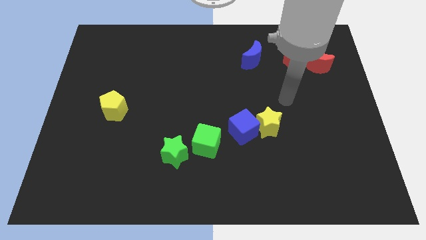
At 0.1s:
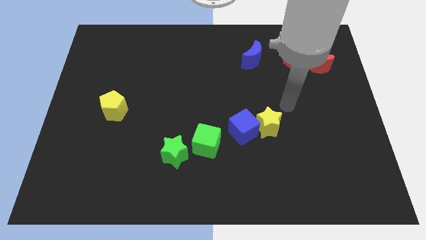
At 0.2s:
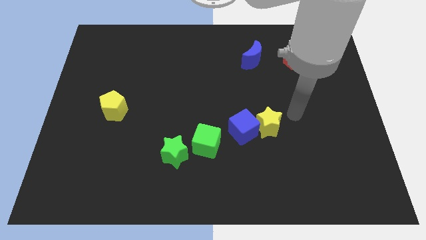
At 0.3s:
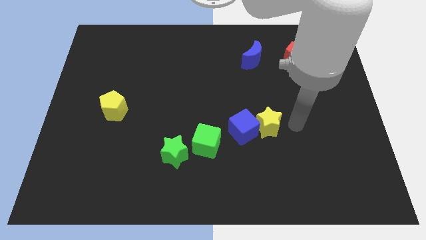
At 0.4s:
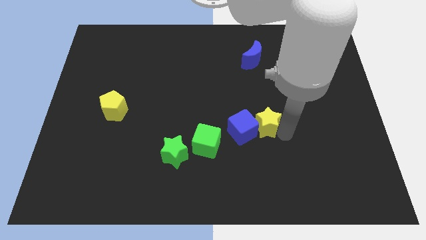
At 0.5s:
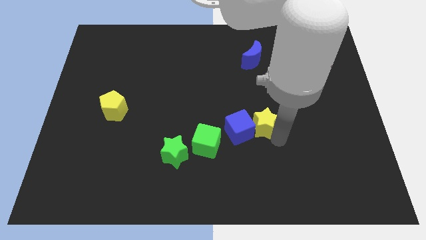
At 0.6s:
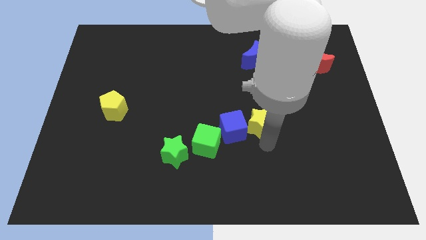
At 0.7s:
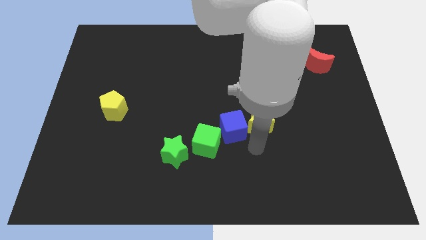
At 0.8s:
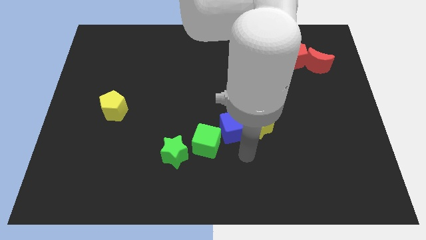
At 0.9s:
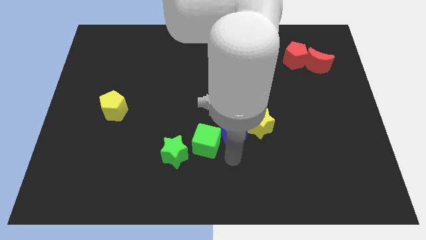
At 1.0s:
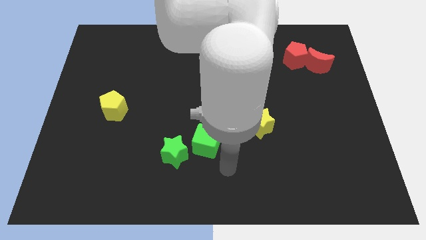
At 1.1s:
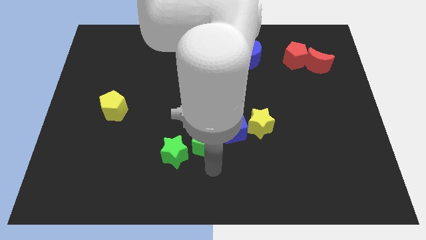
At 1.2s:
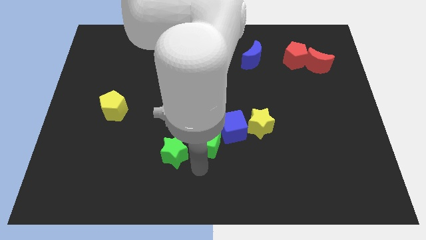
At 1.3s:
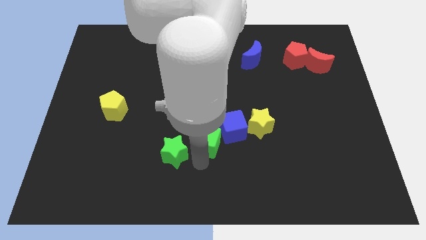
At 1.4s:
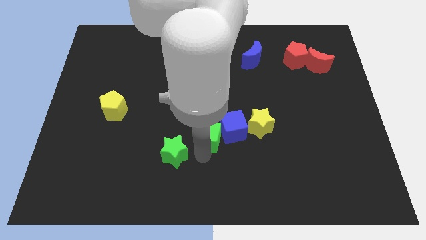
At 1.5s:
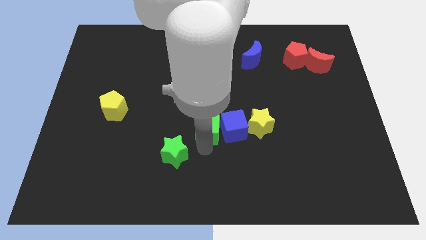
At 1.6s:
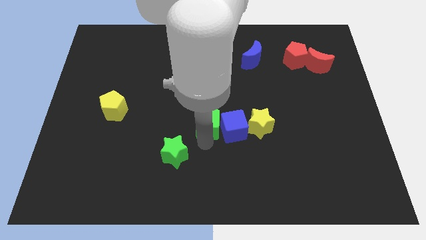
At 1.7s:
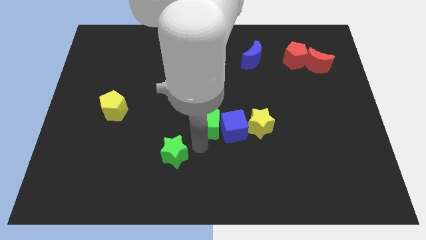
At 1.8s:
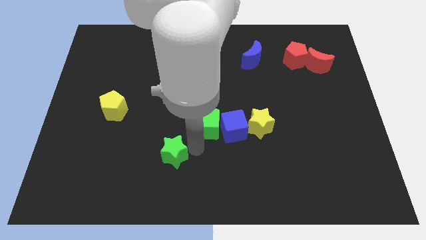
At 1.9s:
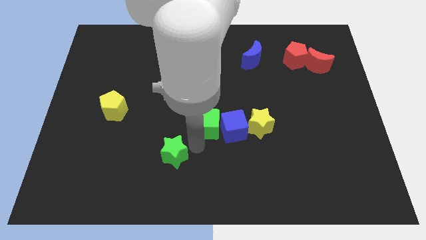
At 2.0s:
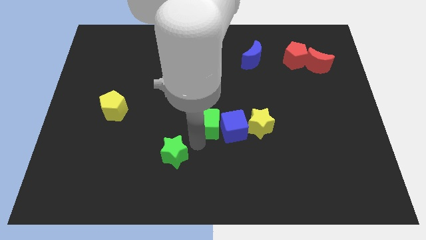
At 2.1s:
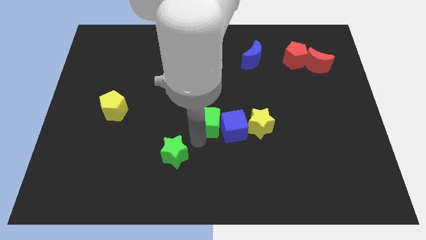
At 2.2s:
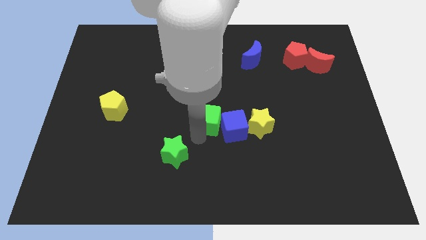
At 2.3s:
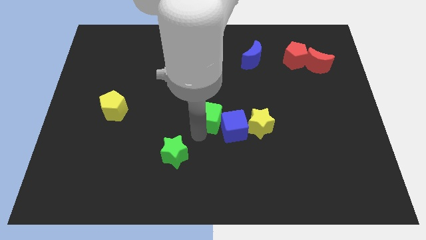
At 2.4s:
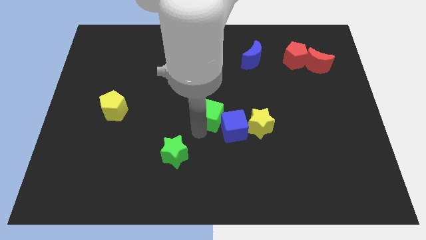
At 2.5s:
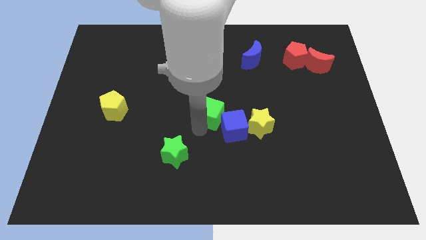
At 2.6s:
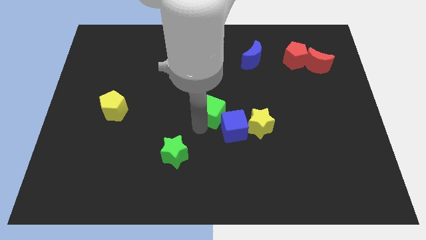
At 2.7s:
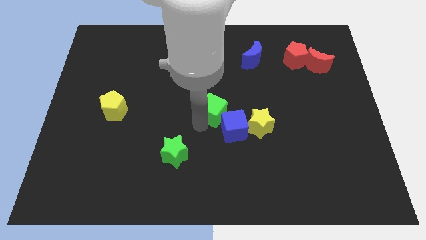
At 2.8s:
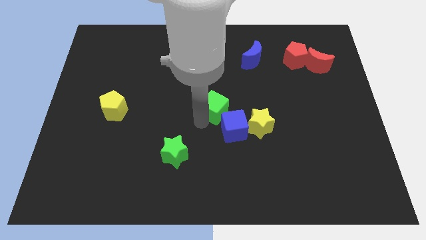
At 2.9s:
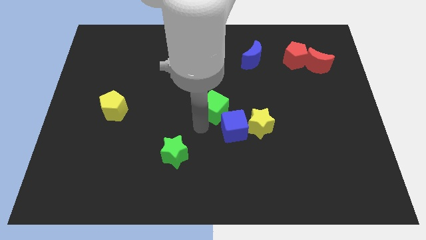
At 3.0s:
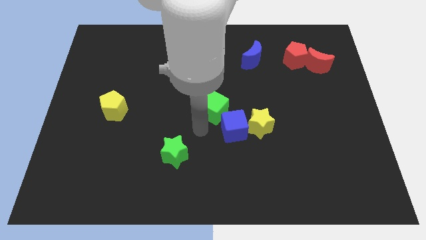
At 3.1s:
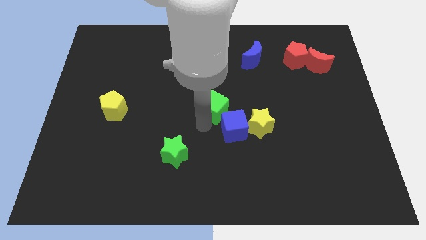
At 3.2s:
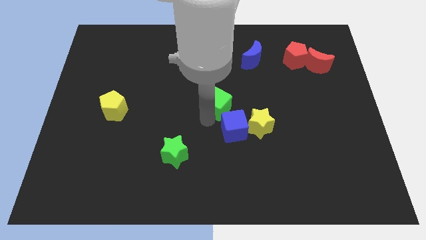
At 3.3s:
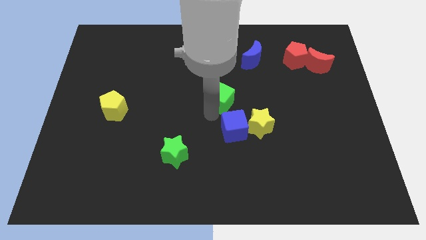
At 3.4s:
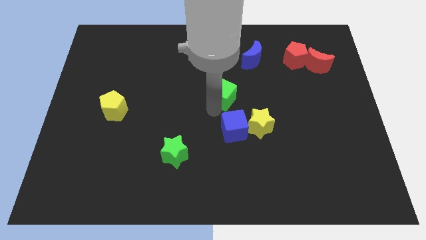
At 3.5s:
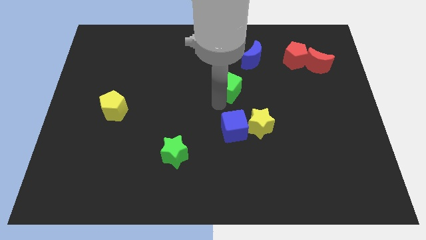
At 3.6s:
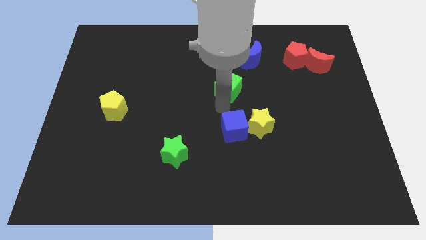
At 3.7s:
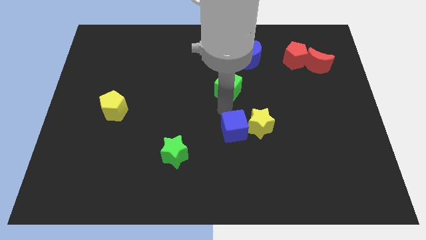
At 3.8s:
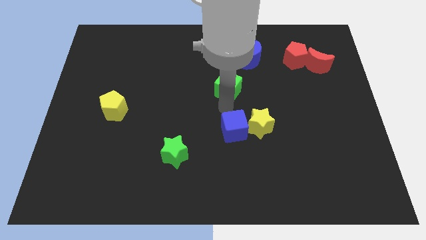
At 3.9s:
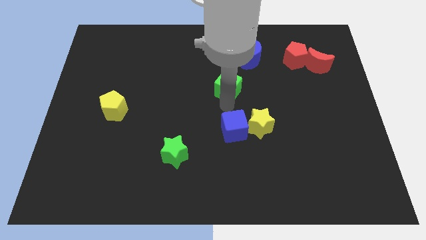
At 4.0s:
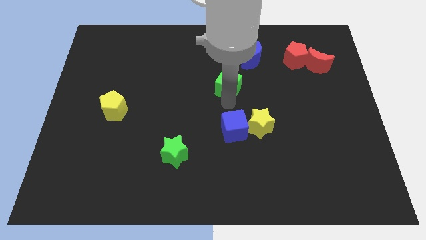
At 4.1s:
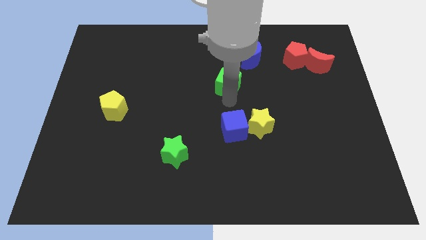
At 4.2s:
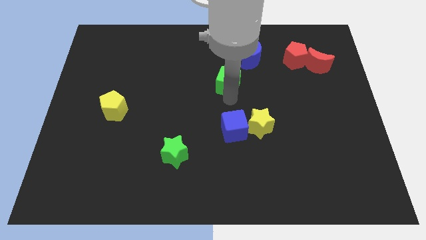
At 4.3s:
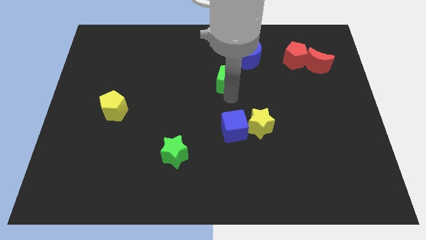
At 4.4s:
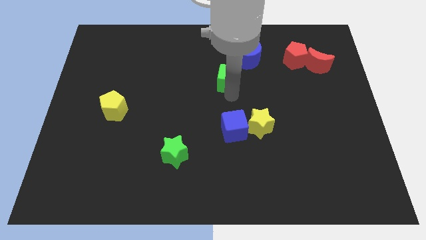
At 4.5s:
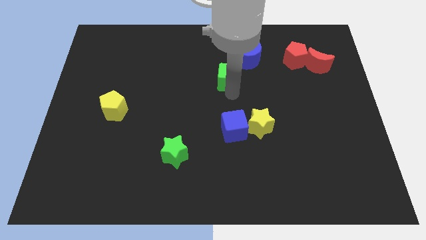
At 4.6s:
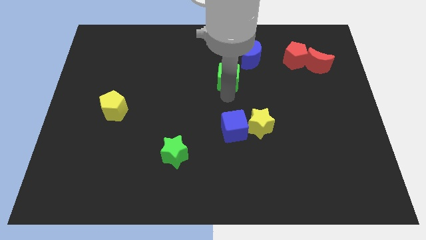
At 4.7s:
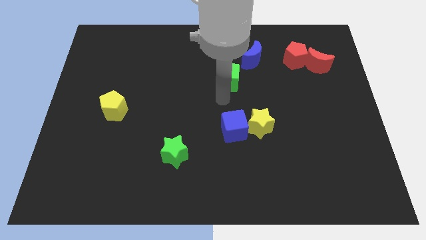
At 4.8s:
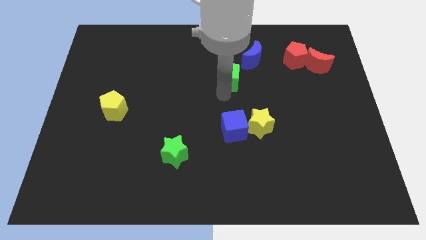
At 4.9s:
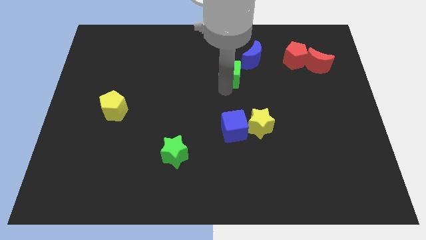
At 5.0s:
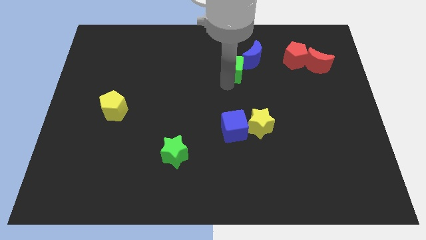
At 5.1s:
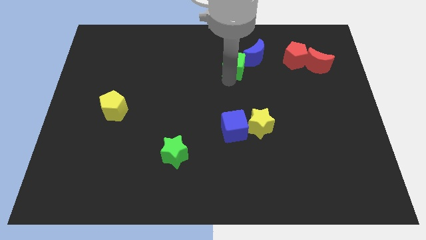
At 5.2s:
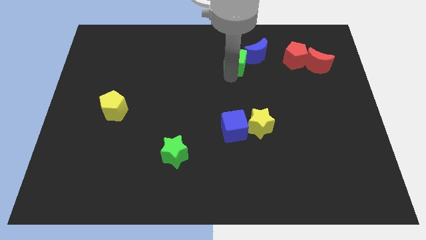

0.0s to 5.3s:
move the green cube to the left of the red pentagon

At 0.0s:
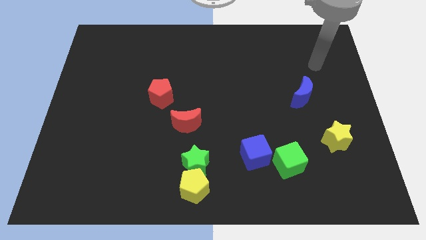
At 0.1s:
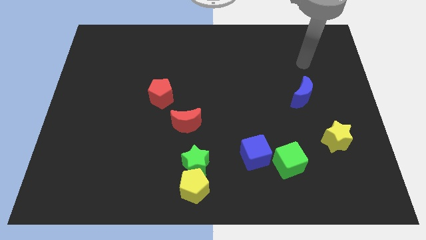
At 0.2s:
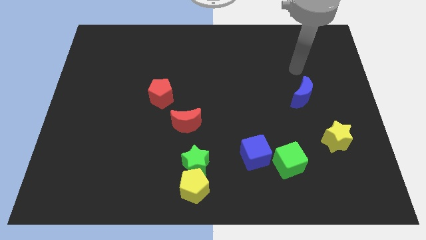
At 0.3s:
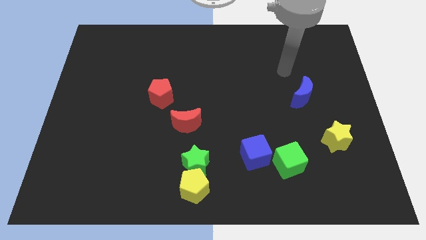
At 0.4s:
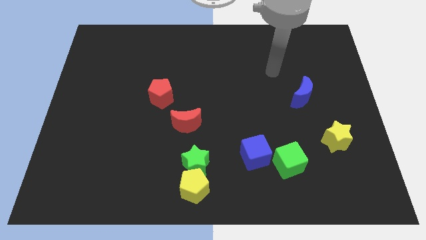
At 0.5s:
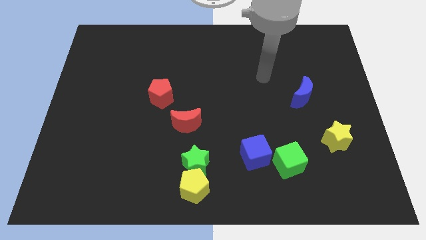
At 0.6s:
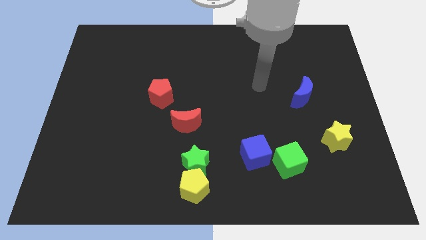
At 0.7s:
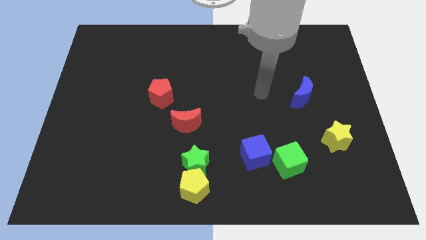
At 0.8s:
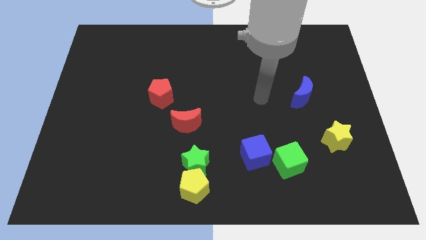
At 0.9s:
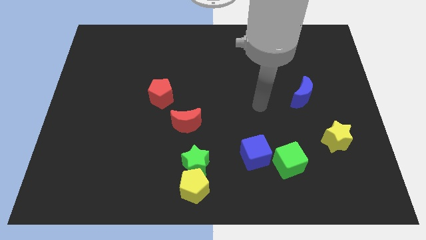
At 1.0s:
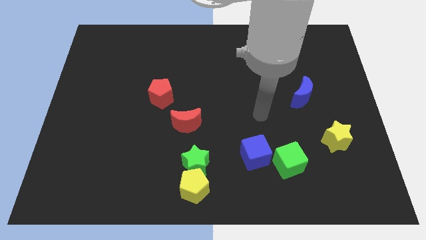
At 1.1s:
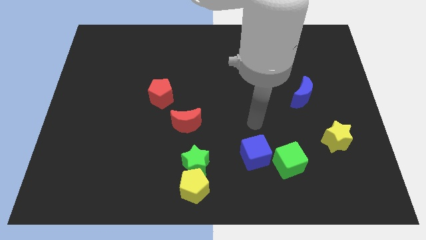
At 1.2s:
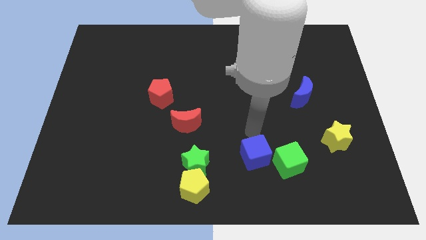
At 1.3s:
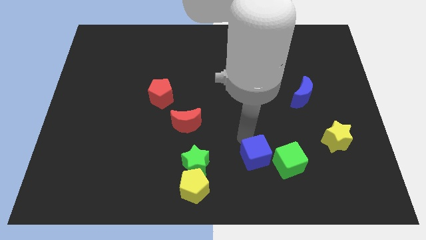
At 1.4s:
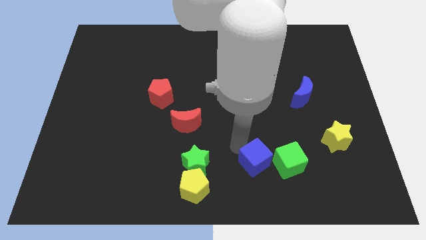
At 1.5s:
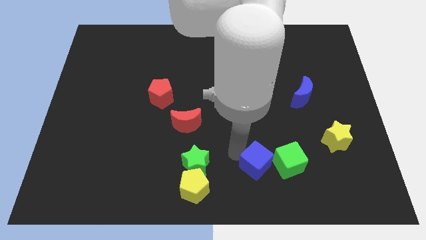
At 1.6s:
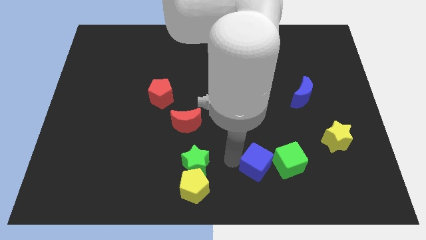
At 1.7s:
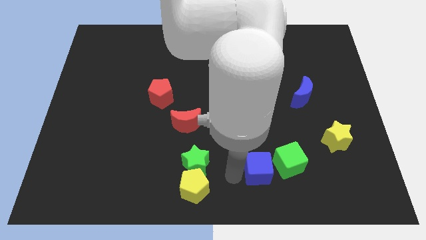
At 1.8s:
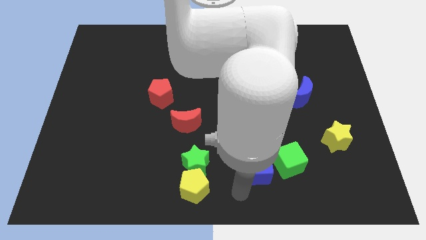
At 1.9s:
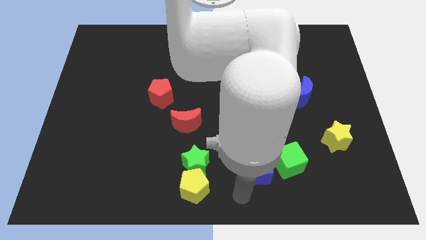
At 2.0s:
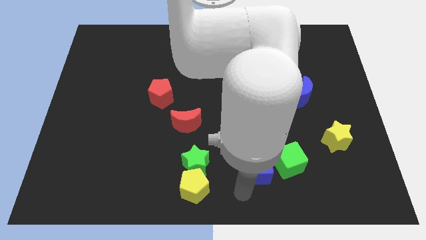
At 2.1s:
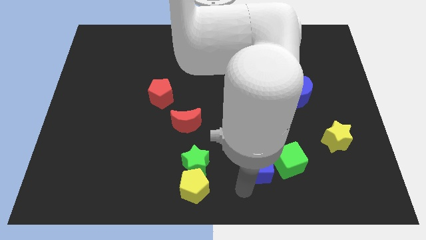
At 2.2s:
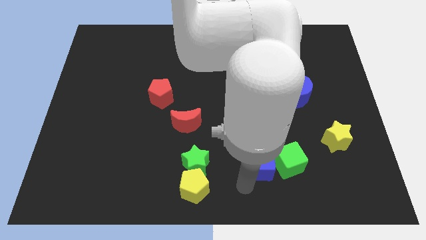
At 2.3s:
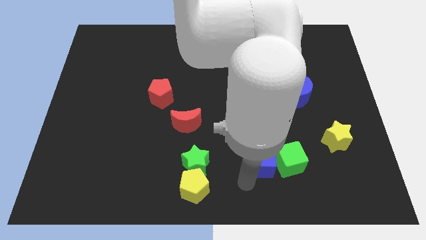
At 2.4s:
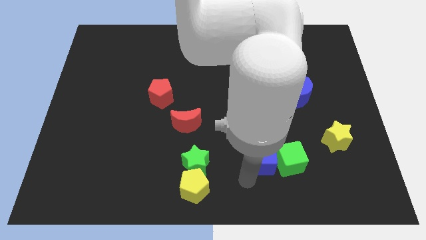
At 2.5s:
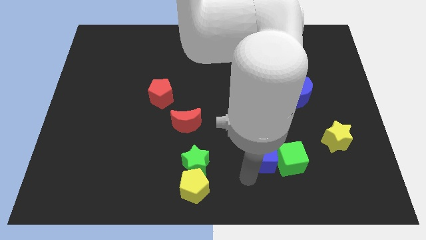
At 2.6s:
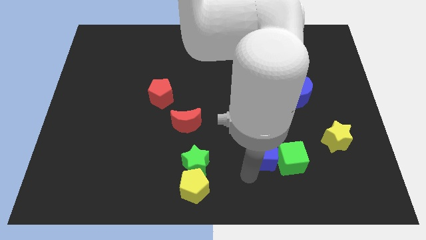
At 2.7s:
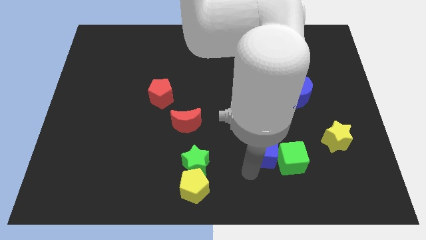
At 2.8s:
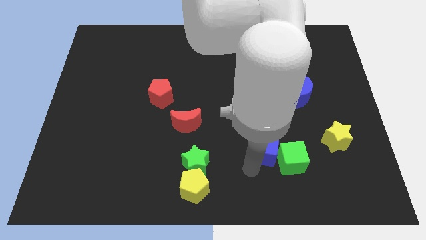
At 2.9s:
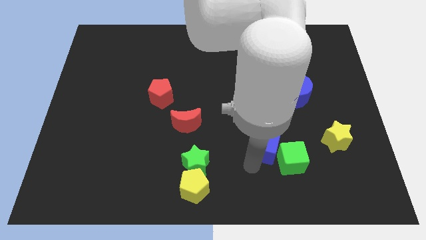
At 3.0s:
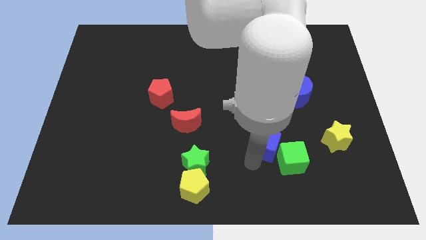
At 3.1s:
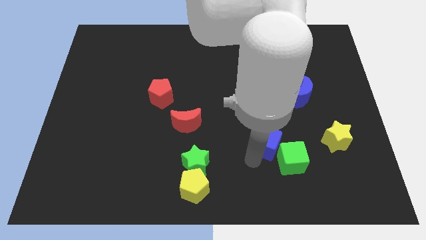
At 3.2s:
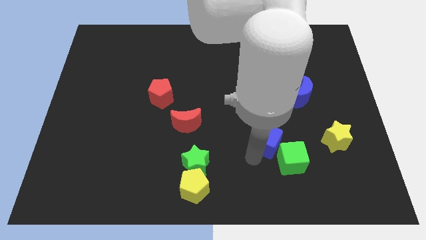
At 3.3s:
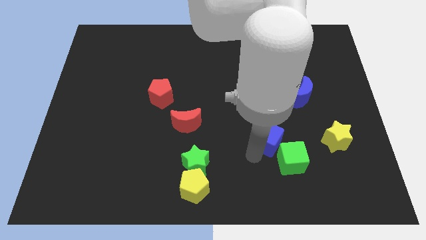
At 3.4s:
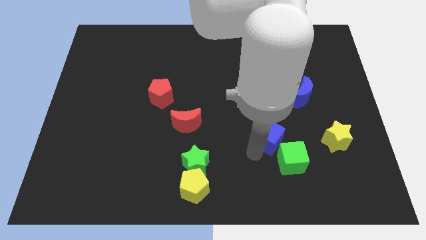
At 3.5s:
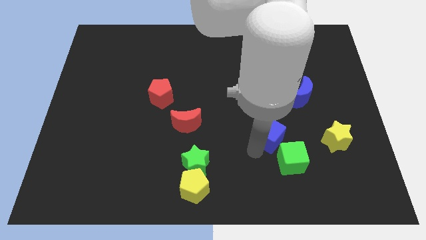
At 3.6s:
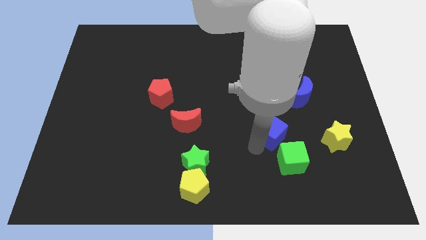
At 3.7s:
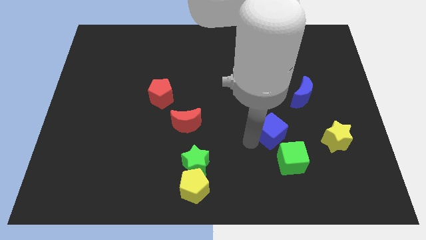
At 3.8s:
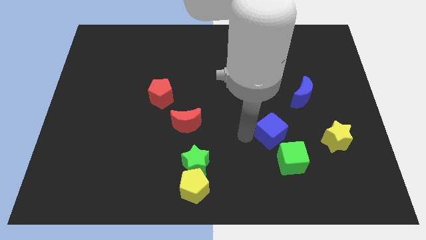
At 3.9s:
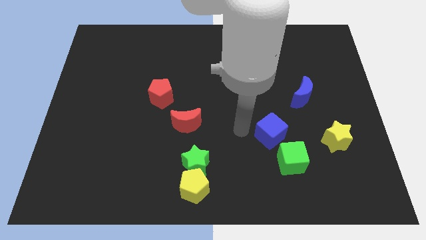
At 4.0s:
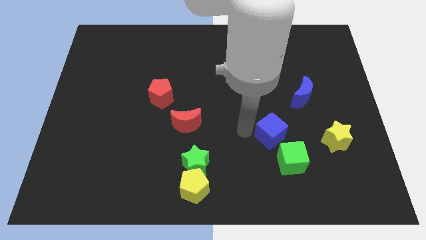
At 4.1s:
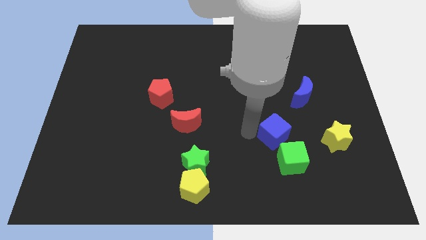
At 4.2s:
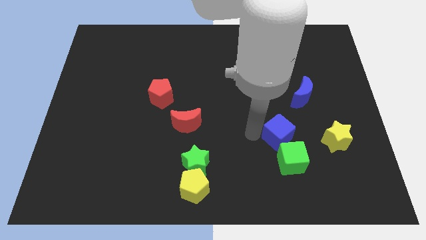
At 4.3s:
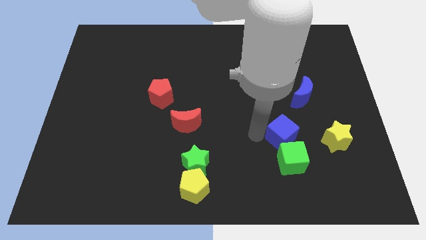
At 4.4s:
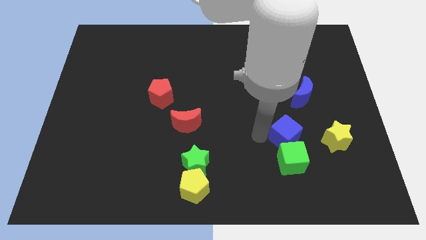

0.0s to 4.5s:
slide the blue cube to the top right side of the green cube
